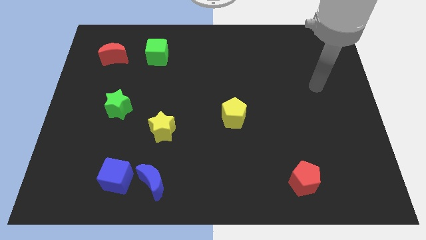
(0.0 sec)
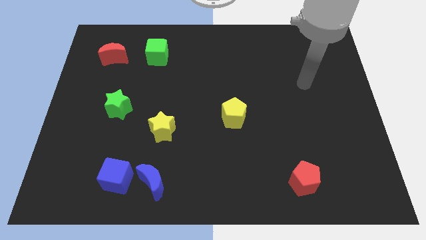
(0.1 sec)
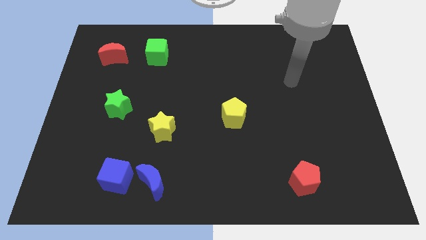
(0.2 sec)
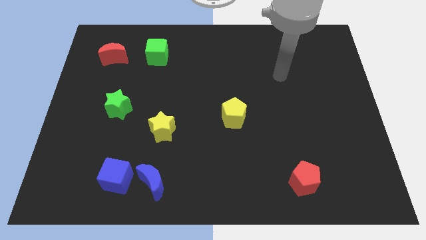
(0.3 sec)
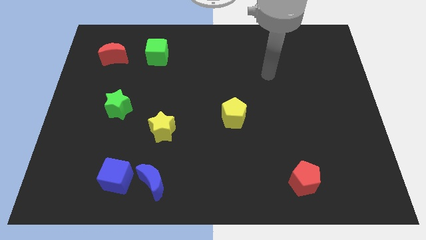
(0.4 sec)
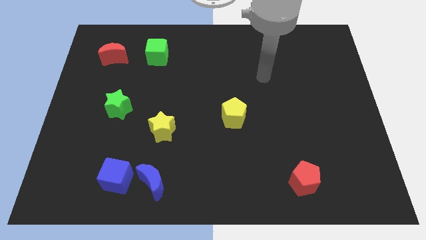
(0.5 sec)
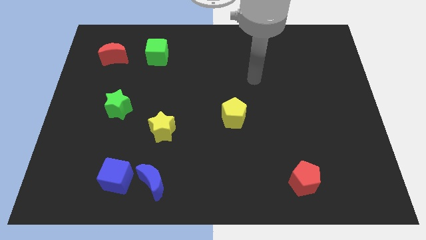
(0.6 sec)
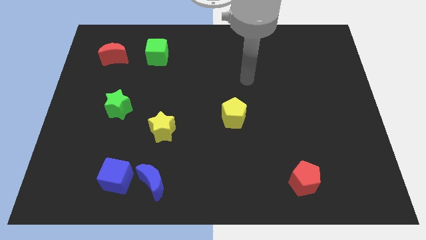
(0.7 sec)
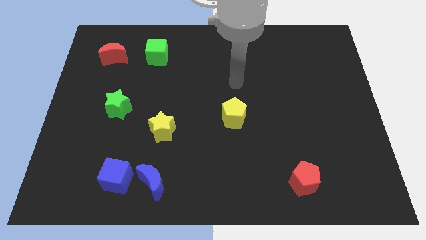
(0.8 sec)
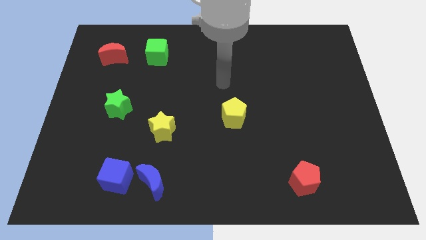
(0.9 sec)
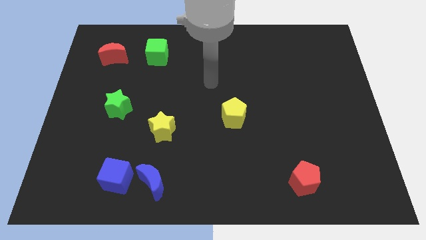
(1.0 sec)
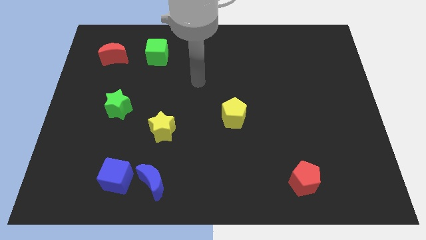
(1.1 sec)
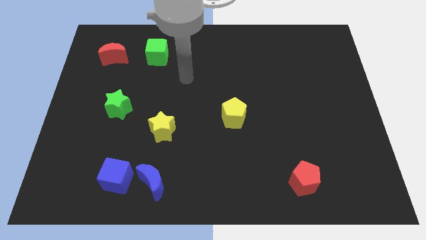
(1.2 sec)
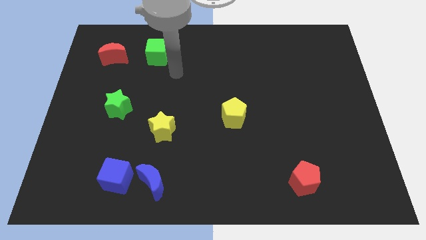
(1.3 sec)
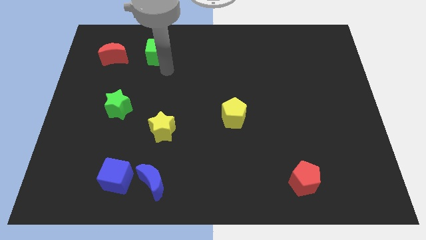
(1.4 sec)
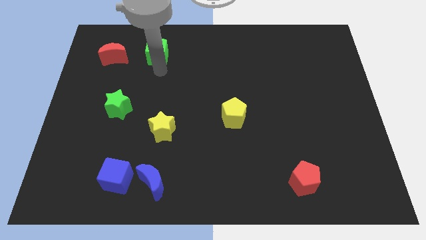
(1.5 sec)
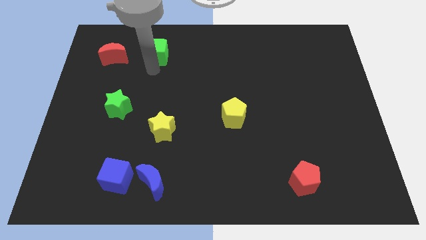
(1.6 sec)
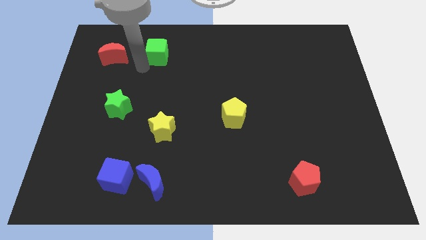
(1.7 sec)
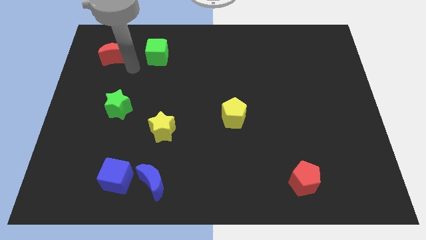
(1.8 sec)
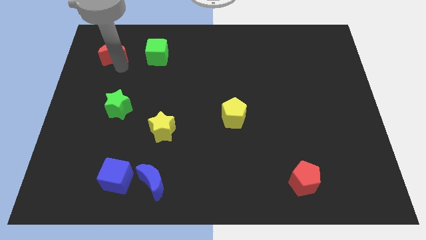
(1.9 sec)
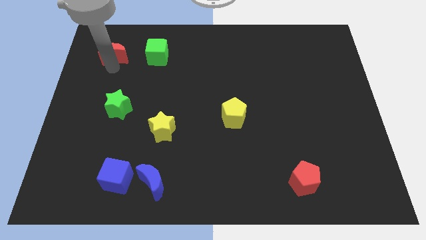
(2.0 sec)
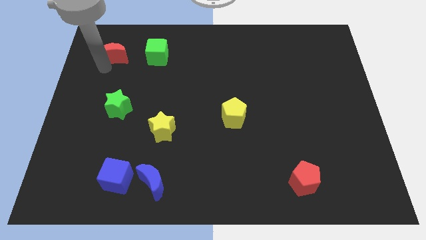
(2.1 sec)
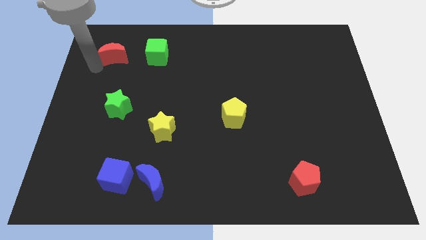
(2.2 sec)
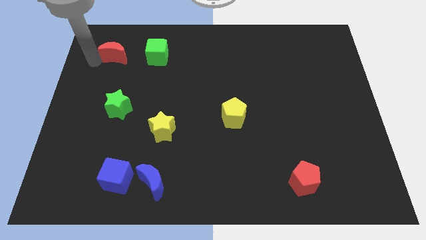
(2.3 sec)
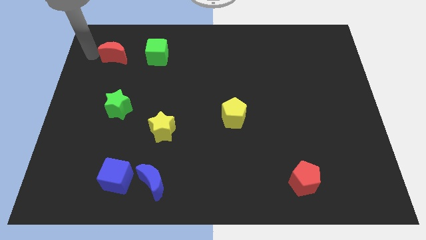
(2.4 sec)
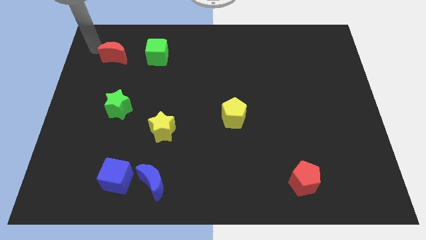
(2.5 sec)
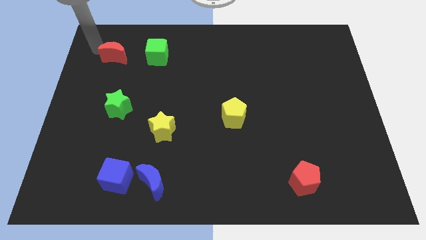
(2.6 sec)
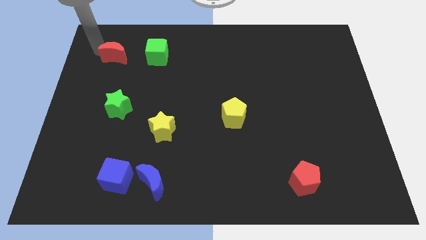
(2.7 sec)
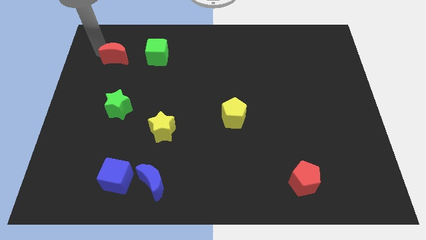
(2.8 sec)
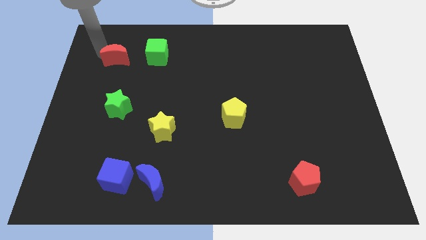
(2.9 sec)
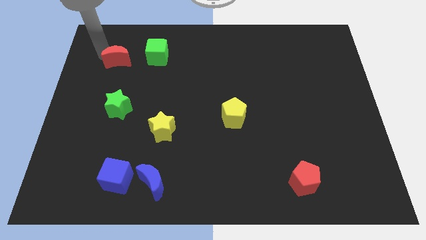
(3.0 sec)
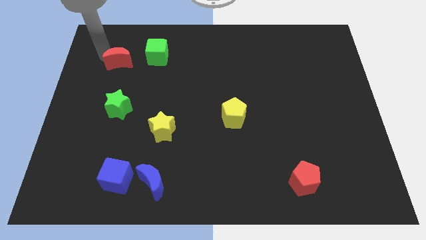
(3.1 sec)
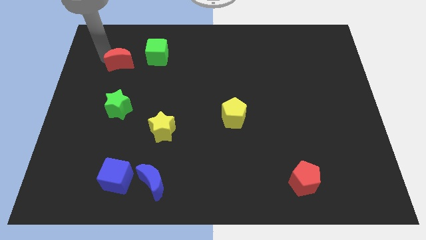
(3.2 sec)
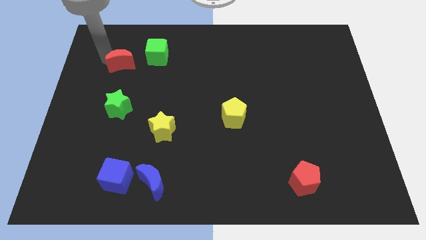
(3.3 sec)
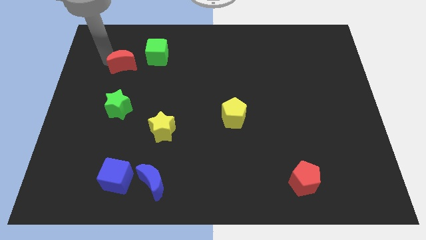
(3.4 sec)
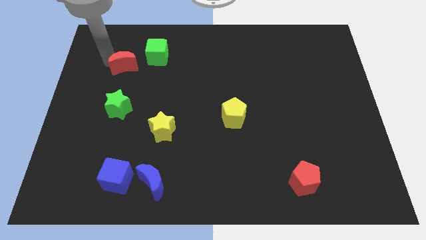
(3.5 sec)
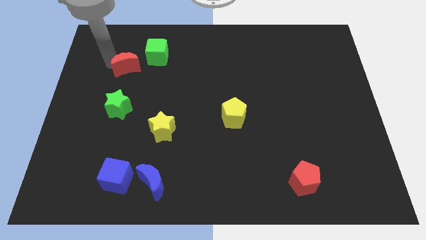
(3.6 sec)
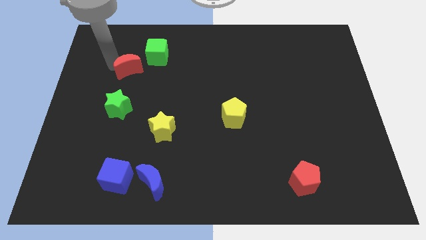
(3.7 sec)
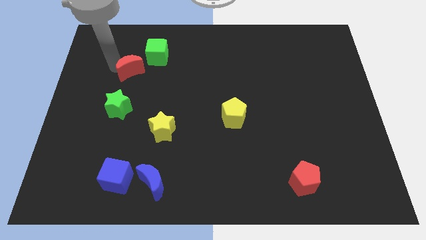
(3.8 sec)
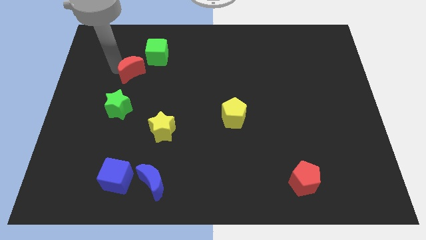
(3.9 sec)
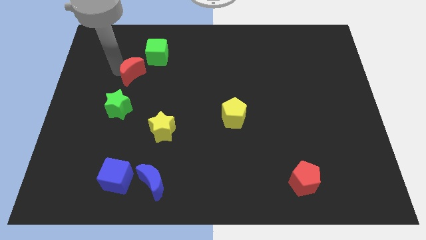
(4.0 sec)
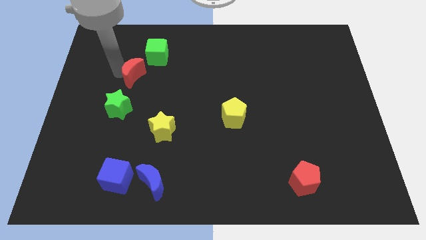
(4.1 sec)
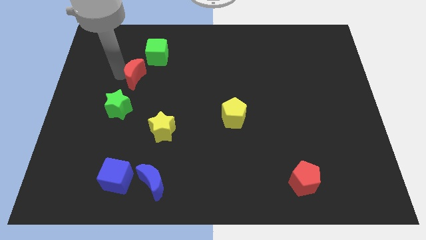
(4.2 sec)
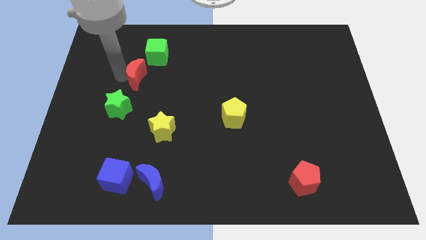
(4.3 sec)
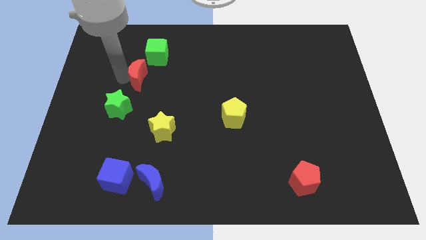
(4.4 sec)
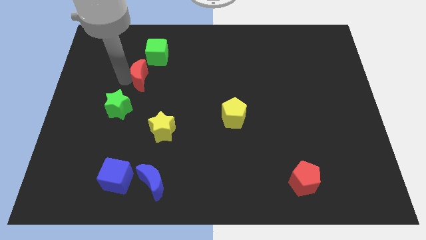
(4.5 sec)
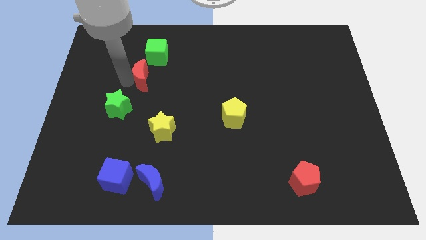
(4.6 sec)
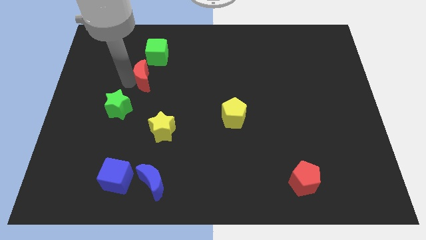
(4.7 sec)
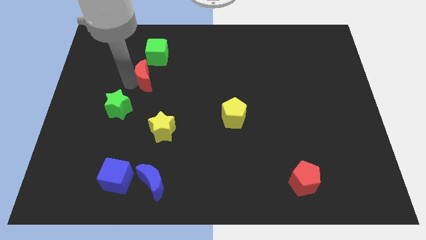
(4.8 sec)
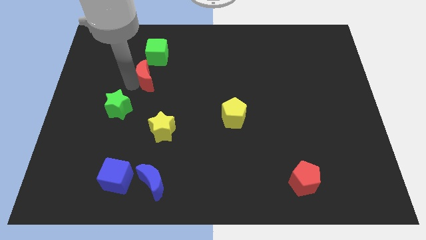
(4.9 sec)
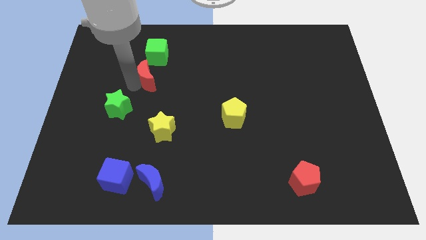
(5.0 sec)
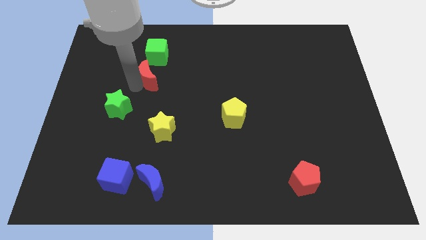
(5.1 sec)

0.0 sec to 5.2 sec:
slide the red moon to the right slightly

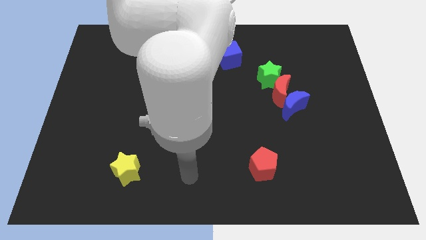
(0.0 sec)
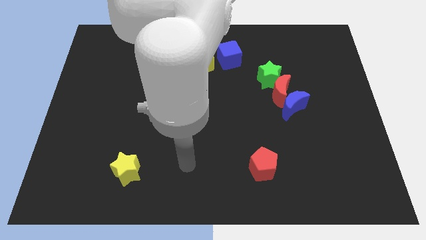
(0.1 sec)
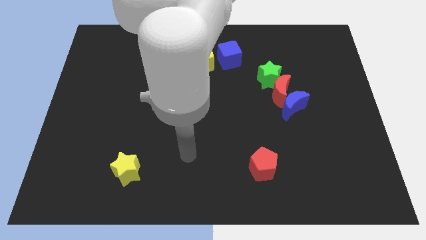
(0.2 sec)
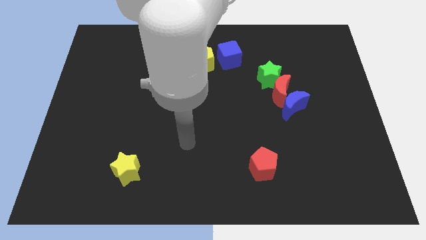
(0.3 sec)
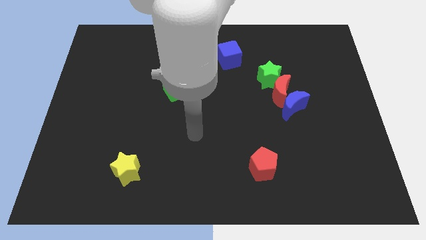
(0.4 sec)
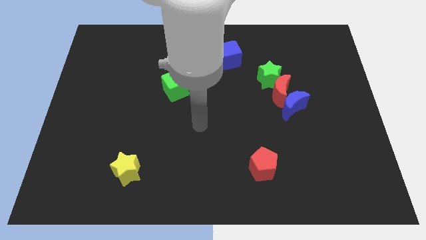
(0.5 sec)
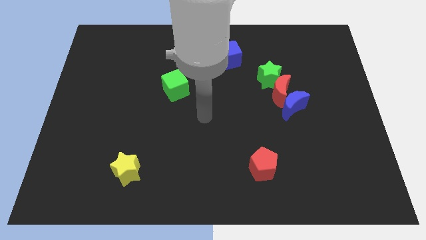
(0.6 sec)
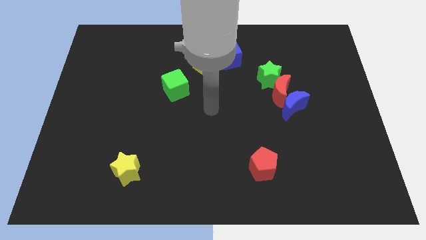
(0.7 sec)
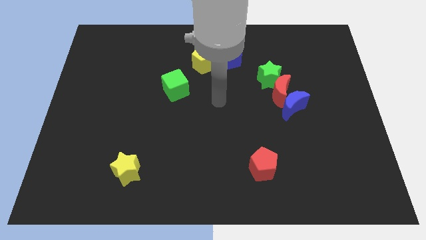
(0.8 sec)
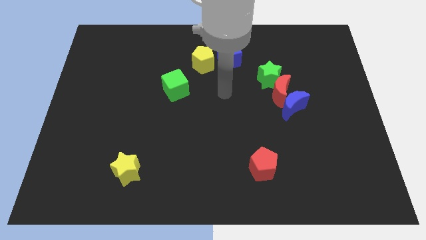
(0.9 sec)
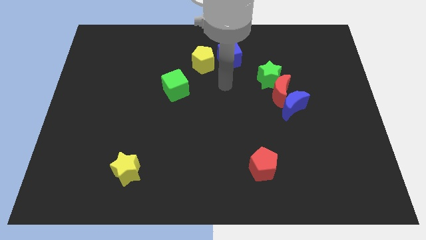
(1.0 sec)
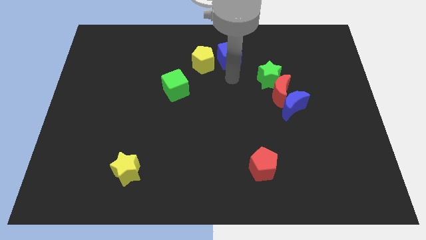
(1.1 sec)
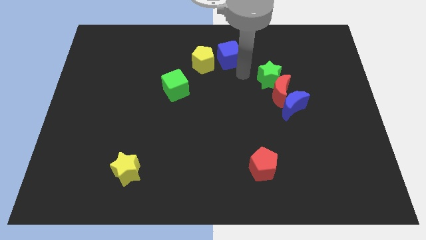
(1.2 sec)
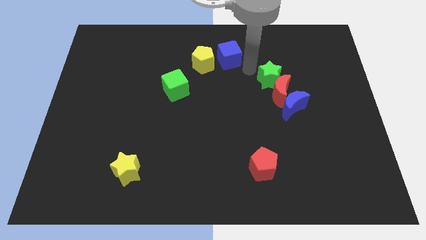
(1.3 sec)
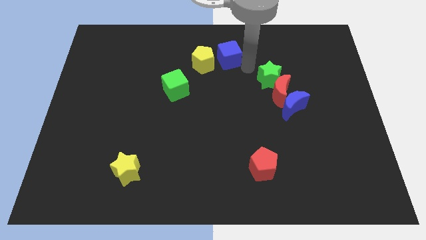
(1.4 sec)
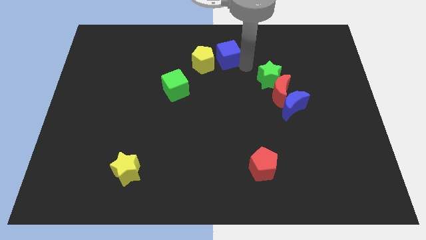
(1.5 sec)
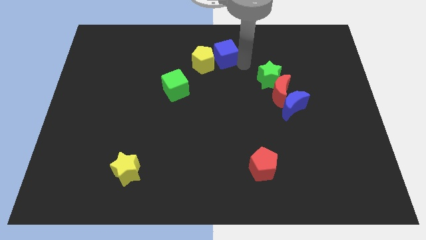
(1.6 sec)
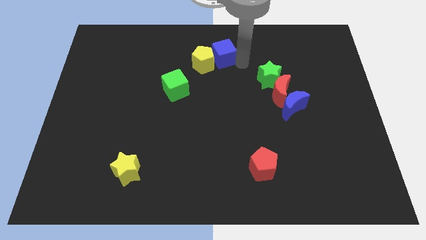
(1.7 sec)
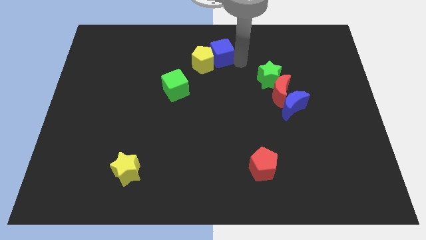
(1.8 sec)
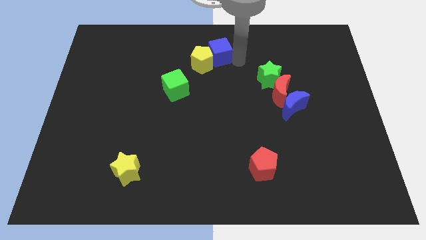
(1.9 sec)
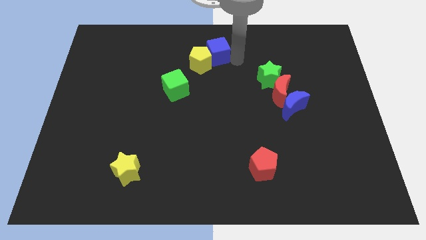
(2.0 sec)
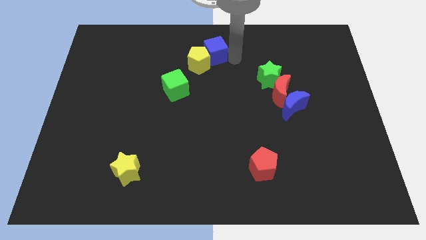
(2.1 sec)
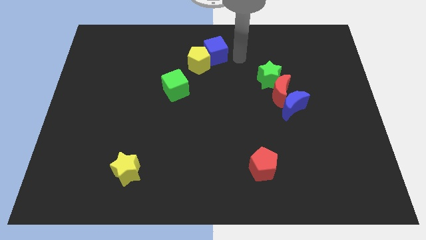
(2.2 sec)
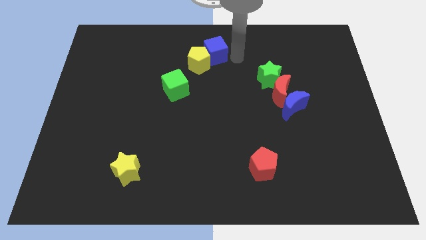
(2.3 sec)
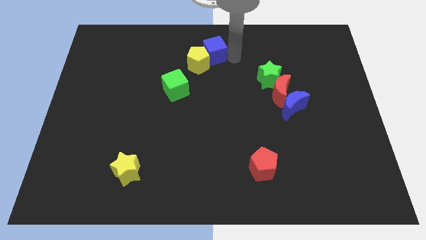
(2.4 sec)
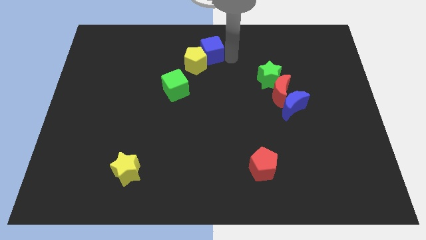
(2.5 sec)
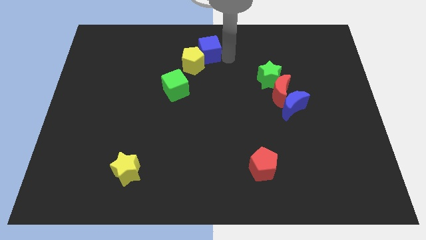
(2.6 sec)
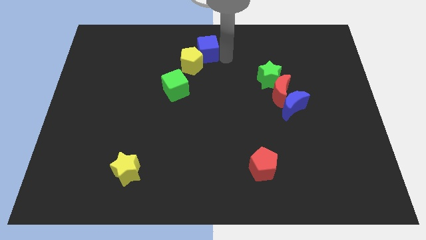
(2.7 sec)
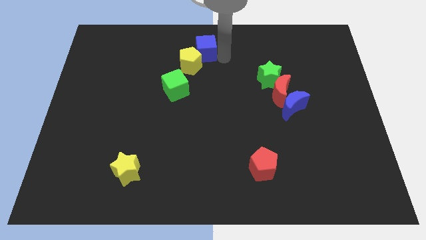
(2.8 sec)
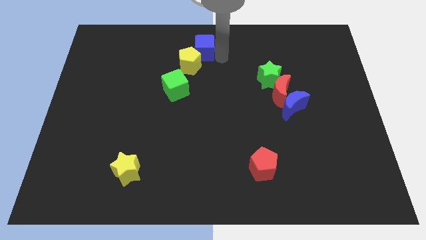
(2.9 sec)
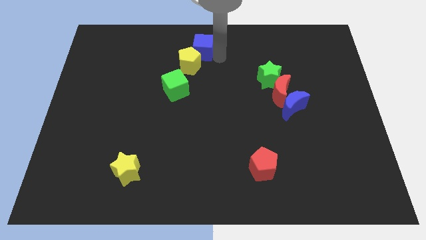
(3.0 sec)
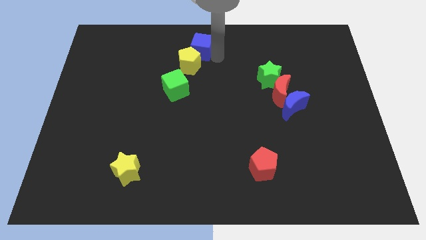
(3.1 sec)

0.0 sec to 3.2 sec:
move the blue cube a bit left
